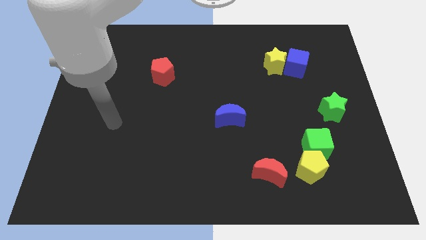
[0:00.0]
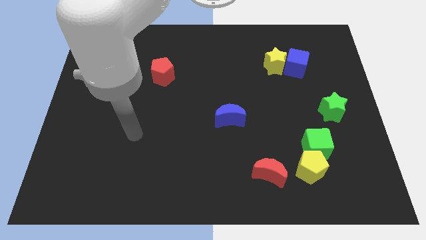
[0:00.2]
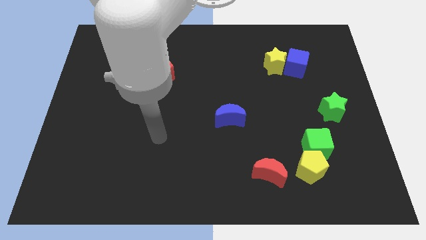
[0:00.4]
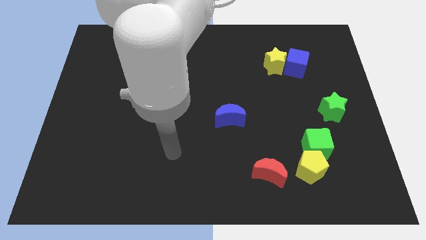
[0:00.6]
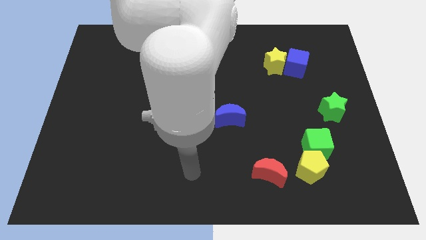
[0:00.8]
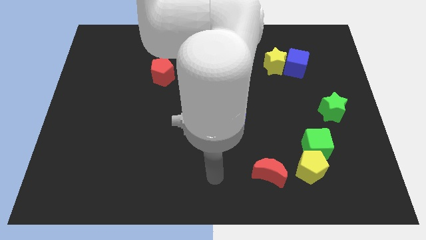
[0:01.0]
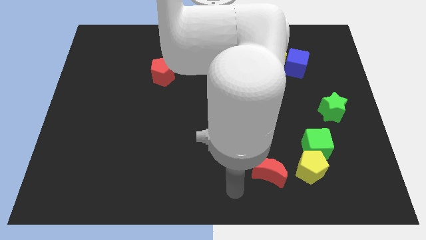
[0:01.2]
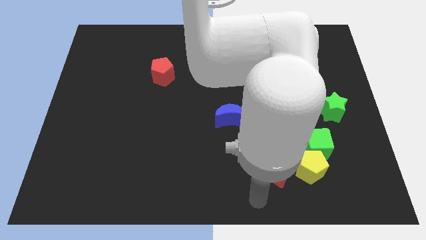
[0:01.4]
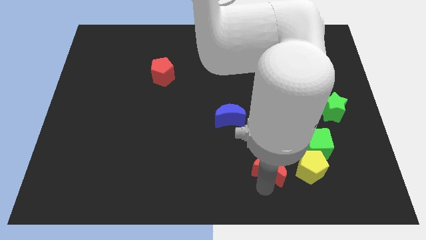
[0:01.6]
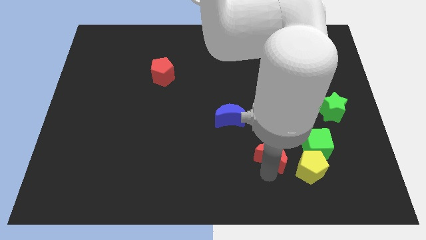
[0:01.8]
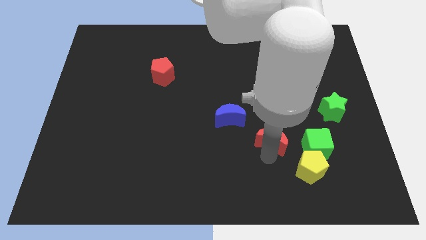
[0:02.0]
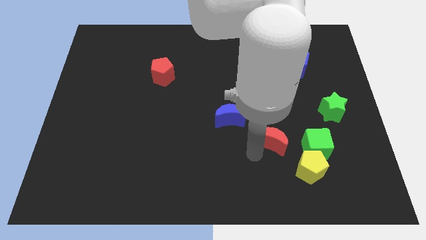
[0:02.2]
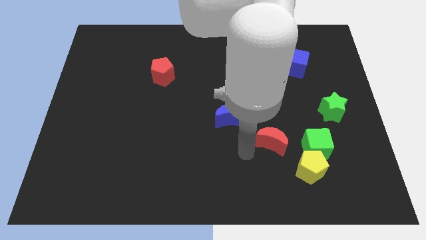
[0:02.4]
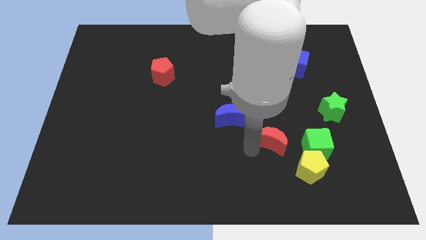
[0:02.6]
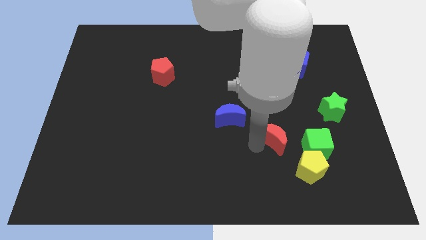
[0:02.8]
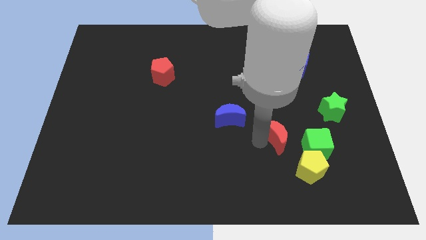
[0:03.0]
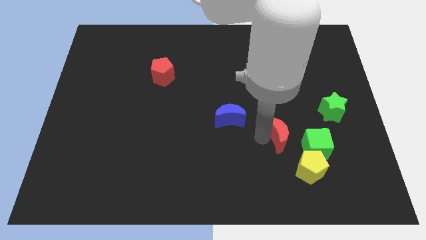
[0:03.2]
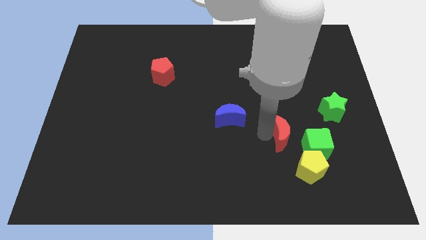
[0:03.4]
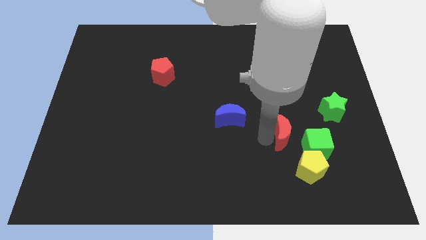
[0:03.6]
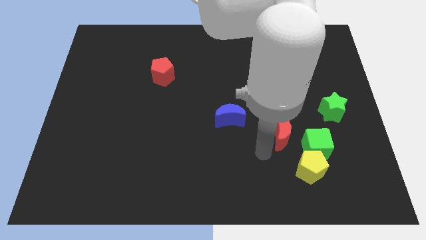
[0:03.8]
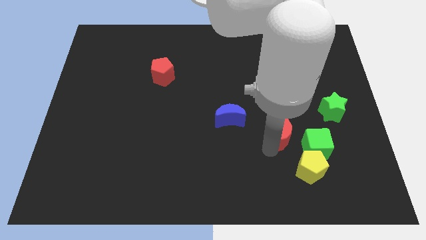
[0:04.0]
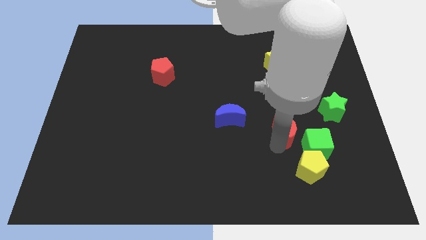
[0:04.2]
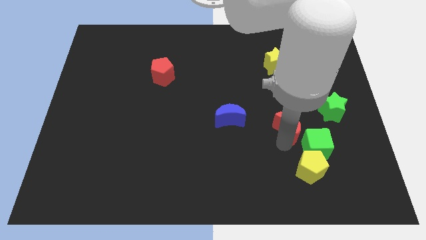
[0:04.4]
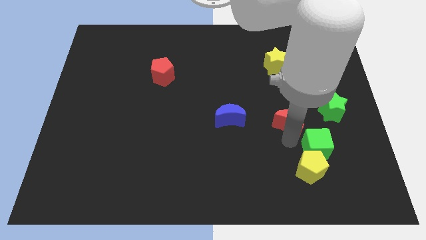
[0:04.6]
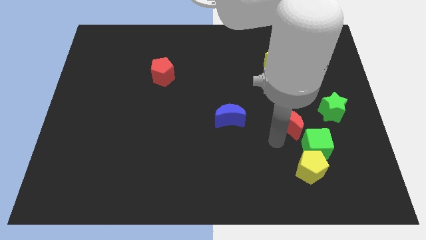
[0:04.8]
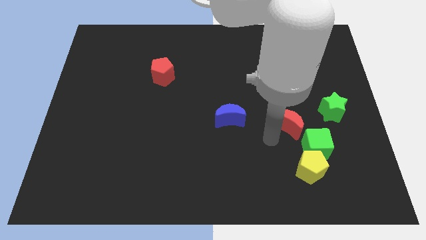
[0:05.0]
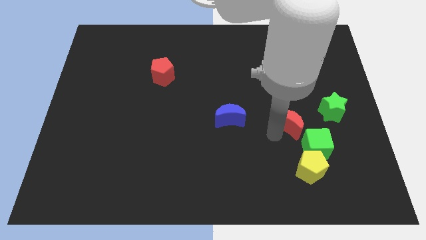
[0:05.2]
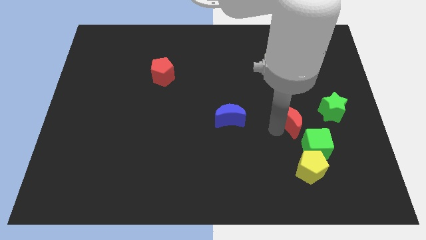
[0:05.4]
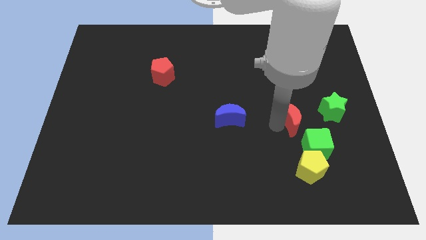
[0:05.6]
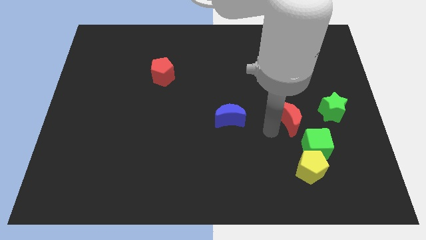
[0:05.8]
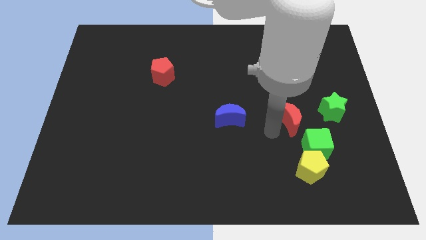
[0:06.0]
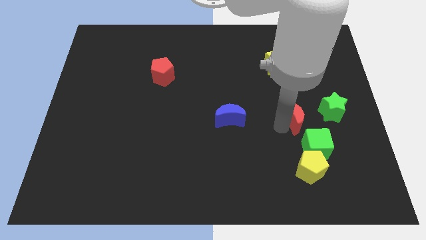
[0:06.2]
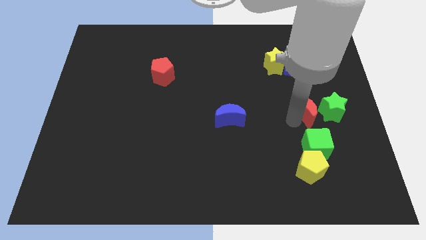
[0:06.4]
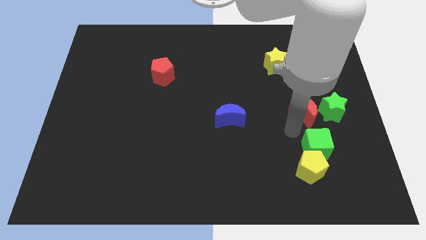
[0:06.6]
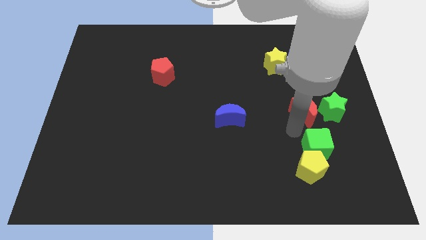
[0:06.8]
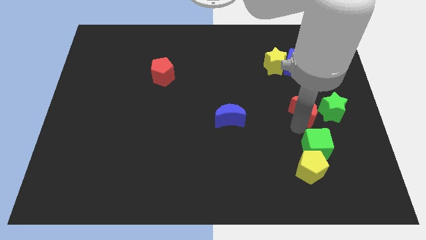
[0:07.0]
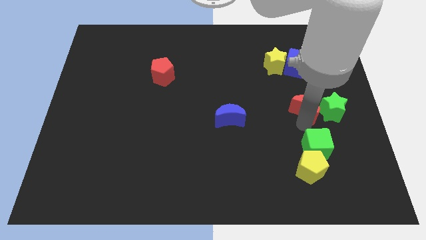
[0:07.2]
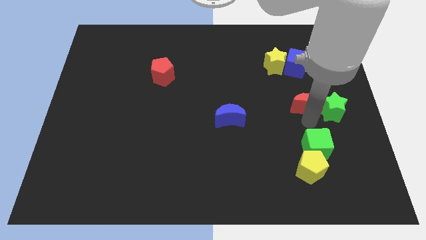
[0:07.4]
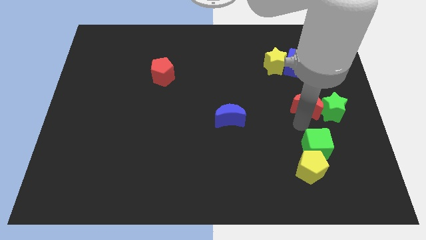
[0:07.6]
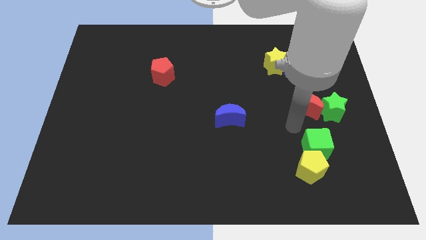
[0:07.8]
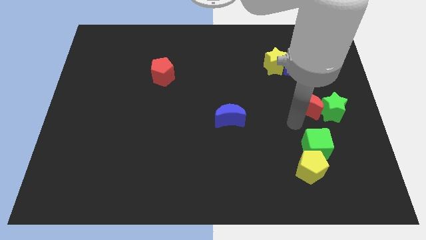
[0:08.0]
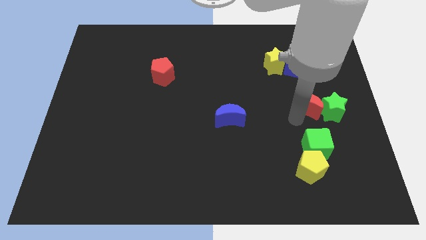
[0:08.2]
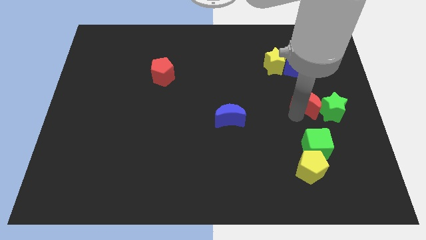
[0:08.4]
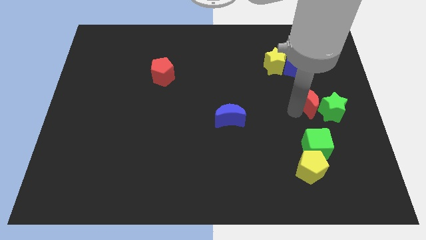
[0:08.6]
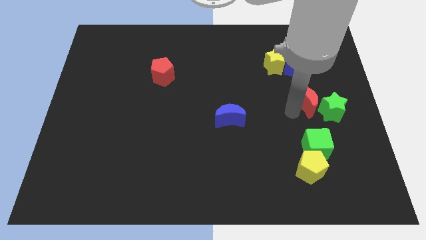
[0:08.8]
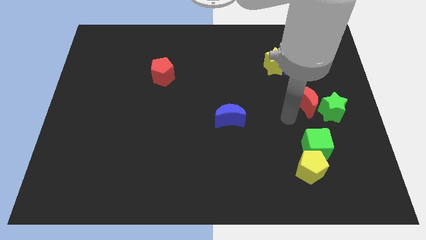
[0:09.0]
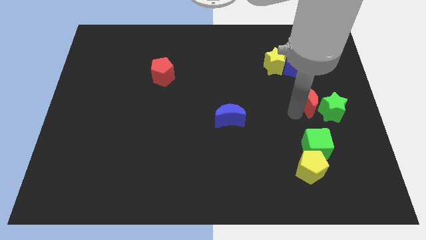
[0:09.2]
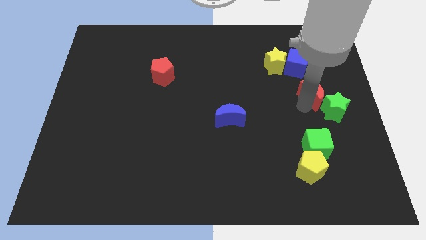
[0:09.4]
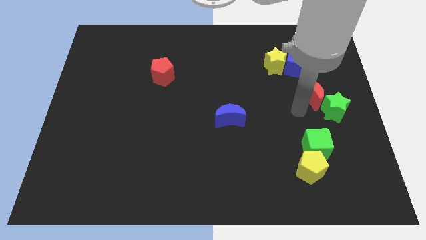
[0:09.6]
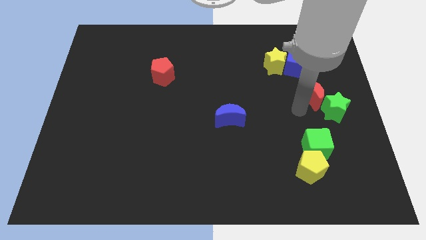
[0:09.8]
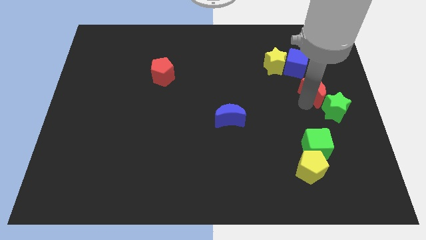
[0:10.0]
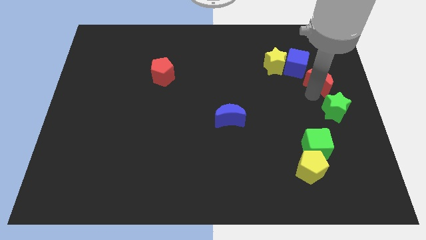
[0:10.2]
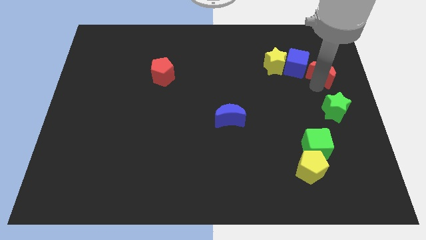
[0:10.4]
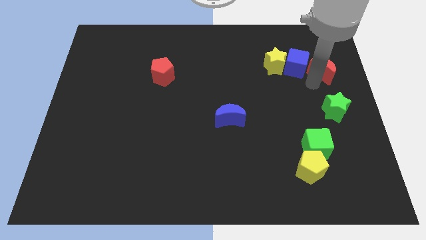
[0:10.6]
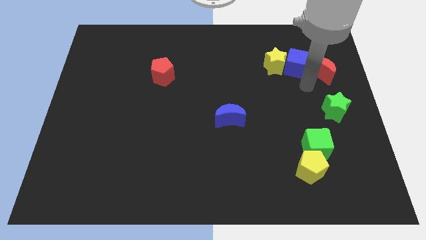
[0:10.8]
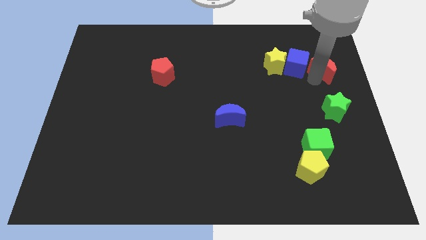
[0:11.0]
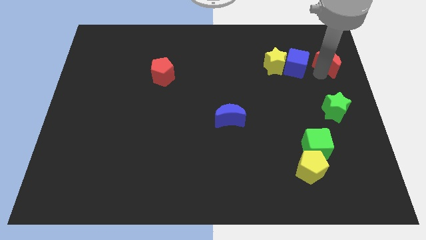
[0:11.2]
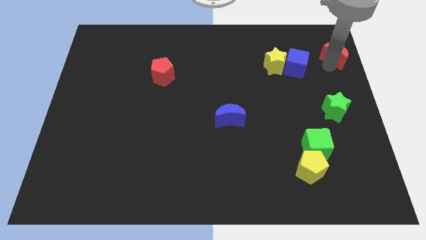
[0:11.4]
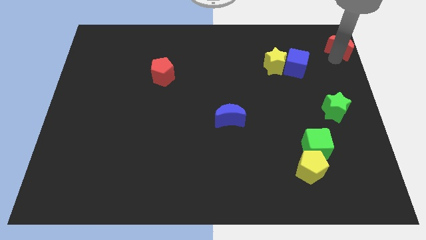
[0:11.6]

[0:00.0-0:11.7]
put the red moon to the top right corner

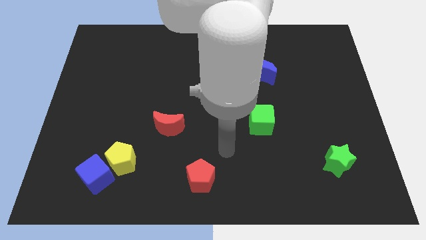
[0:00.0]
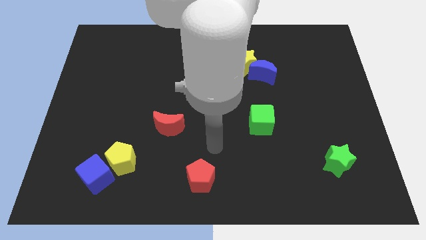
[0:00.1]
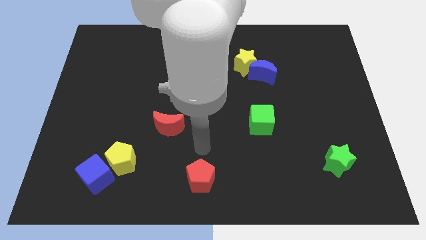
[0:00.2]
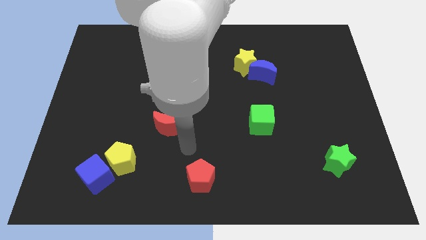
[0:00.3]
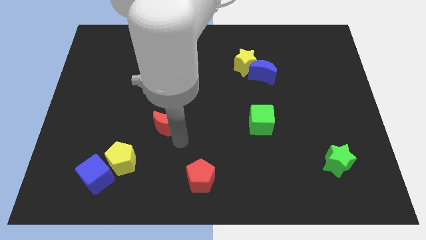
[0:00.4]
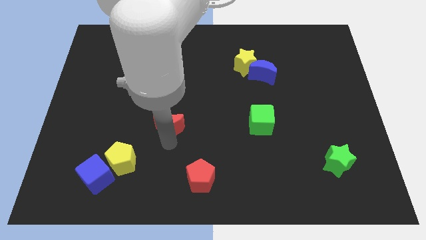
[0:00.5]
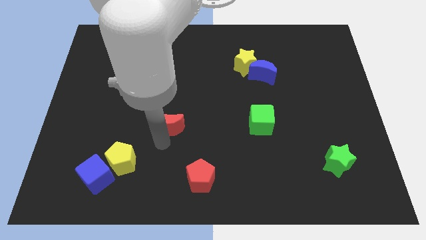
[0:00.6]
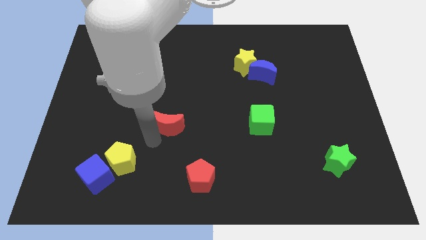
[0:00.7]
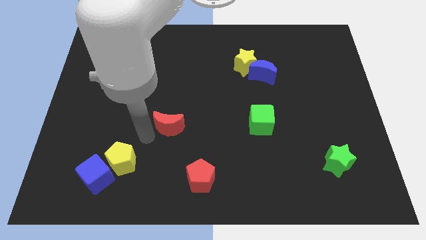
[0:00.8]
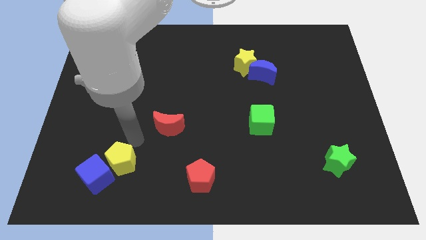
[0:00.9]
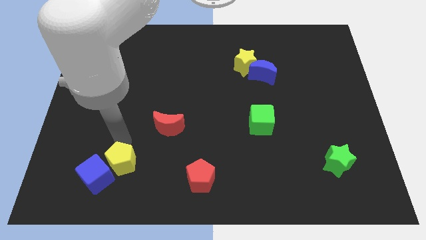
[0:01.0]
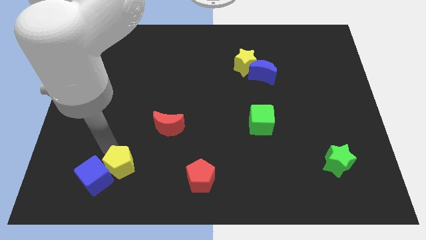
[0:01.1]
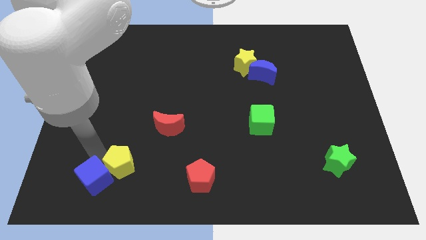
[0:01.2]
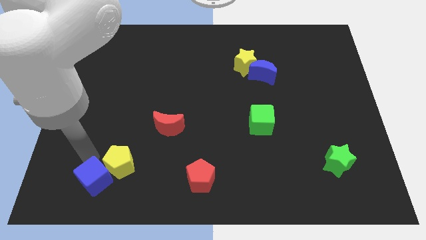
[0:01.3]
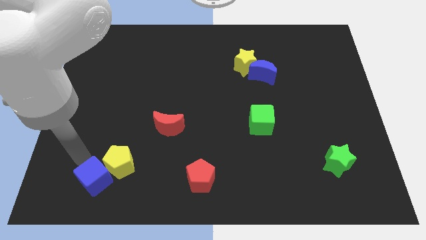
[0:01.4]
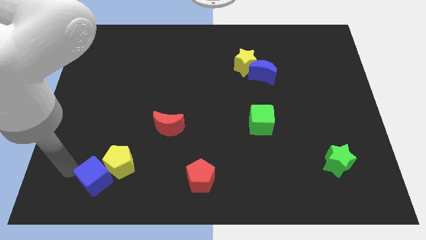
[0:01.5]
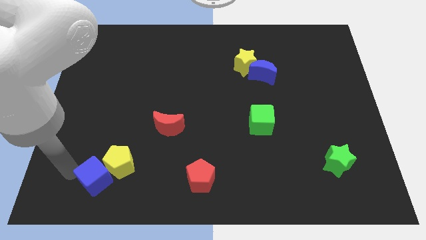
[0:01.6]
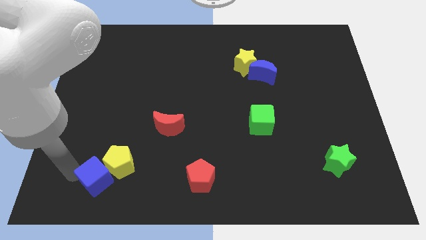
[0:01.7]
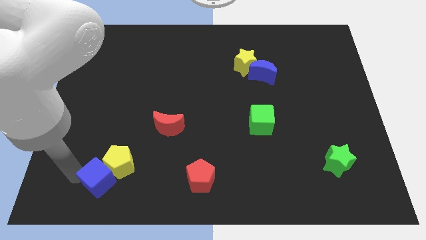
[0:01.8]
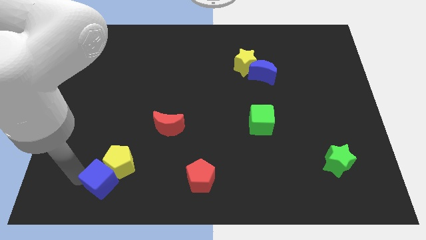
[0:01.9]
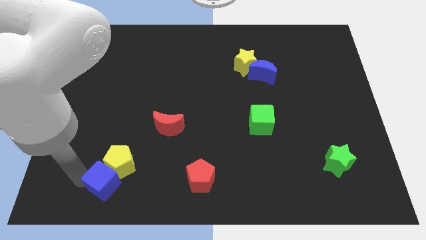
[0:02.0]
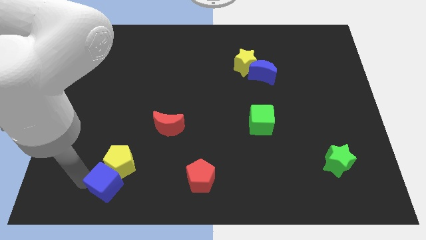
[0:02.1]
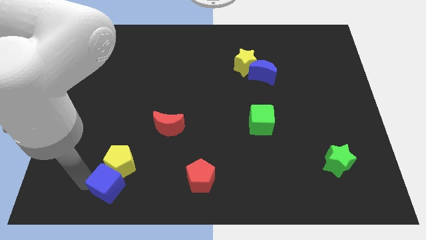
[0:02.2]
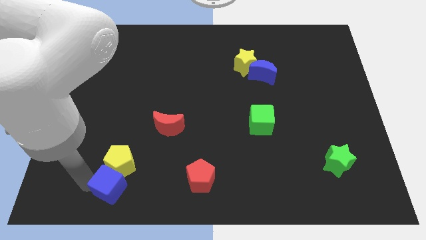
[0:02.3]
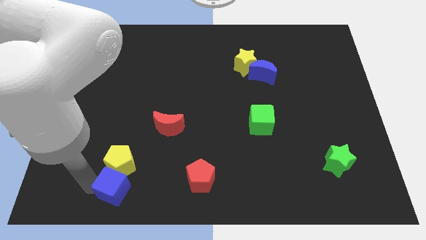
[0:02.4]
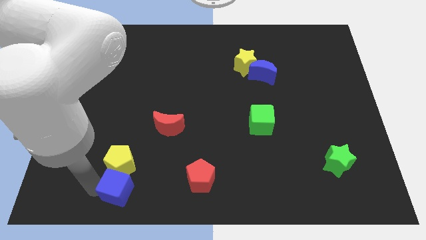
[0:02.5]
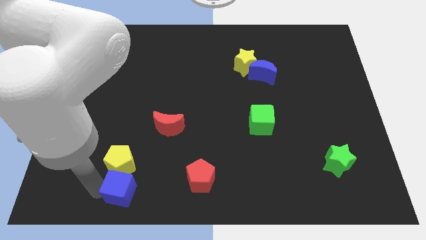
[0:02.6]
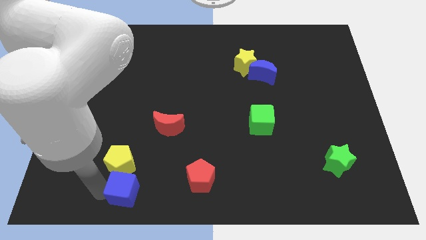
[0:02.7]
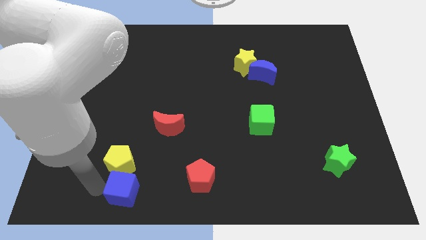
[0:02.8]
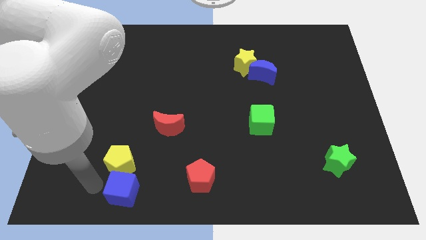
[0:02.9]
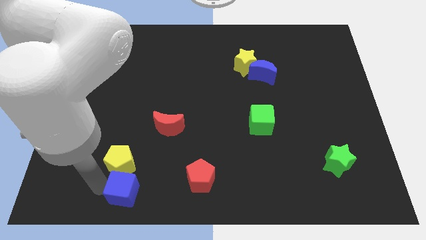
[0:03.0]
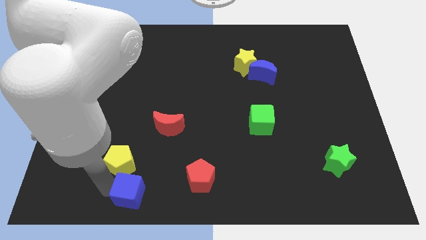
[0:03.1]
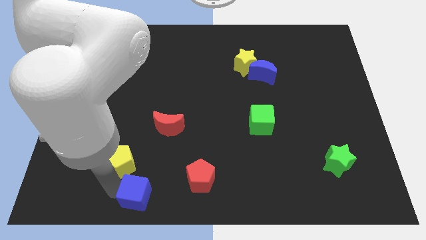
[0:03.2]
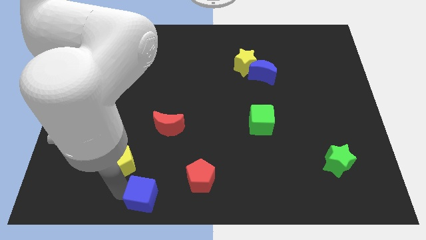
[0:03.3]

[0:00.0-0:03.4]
push the blue cube to the bottom
